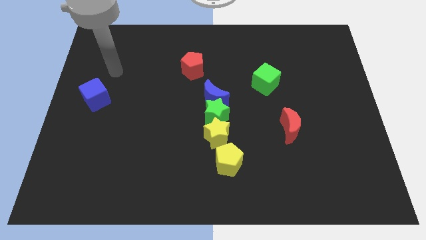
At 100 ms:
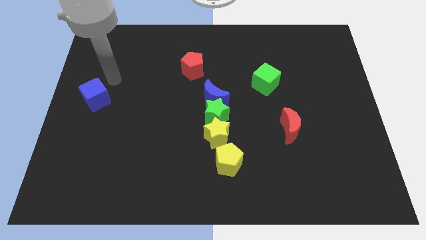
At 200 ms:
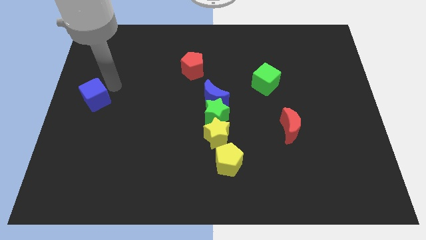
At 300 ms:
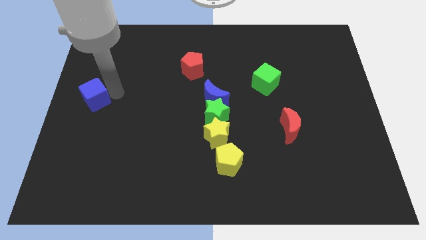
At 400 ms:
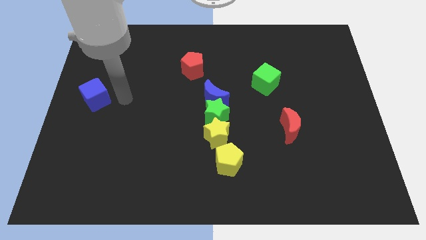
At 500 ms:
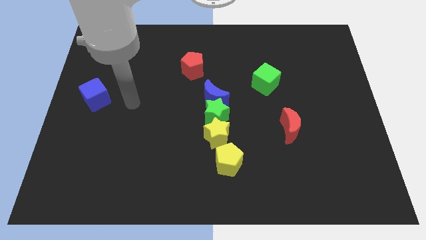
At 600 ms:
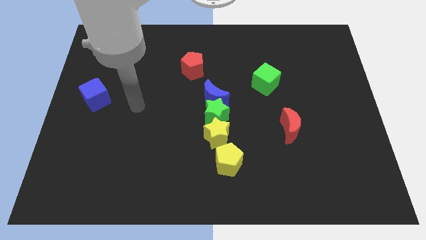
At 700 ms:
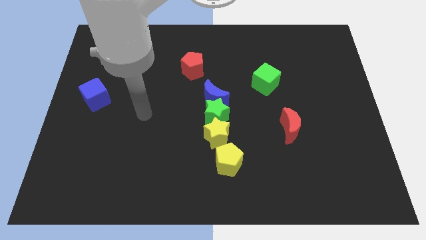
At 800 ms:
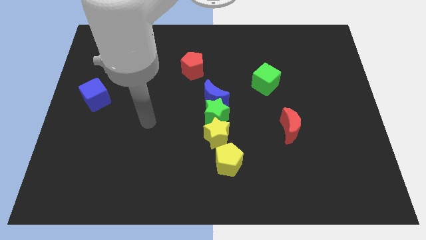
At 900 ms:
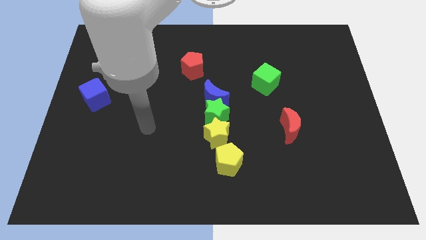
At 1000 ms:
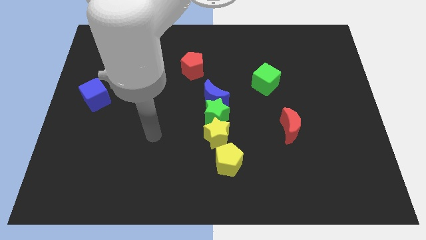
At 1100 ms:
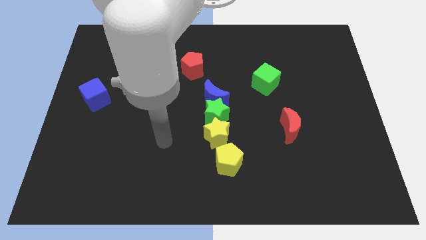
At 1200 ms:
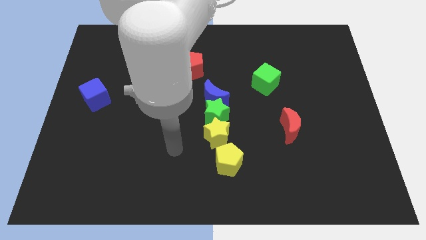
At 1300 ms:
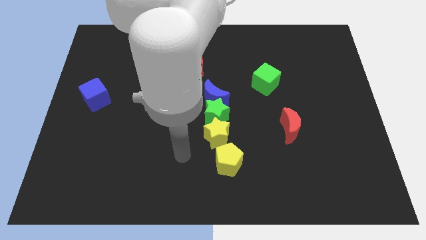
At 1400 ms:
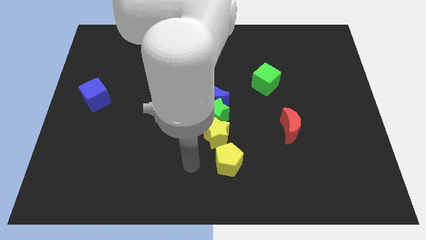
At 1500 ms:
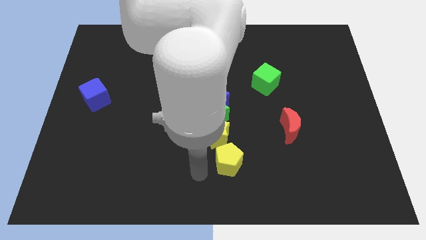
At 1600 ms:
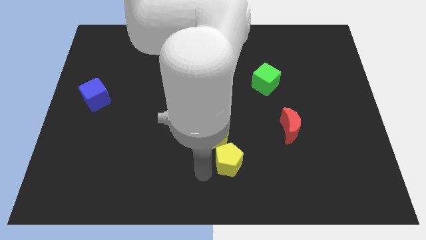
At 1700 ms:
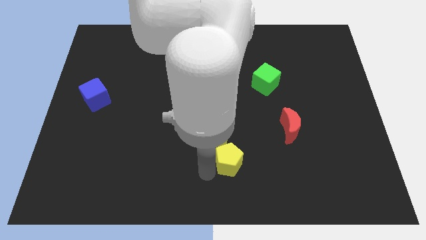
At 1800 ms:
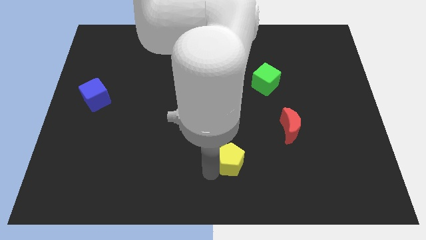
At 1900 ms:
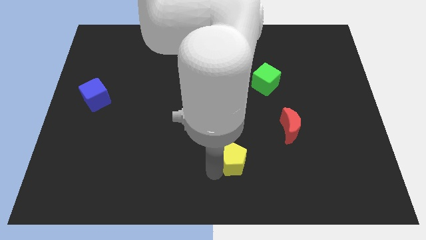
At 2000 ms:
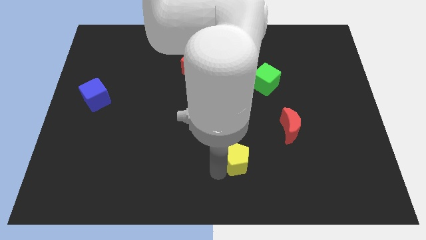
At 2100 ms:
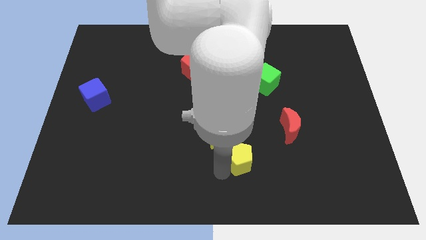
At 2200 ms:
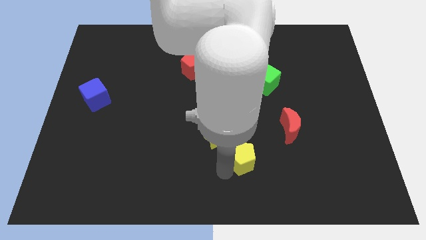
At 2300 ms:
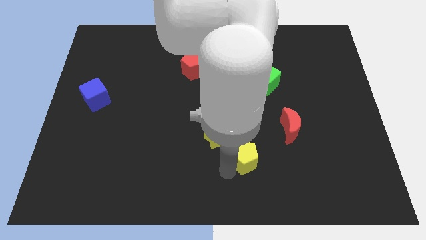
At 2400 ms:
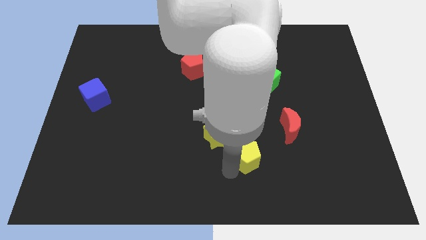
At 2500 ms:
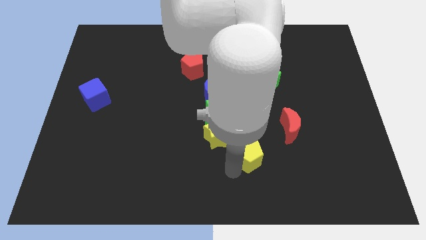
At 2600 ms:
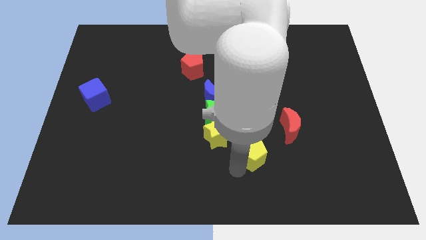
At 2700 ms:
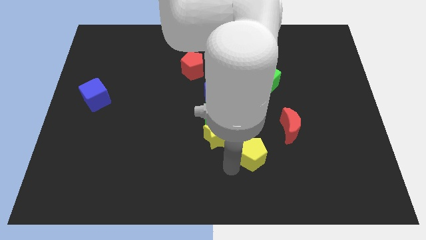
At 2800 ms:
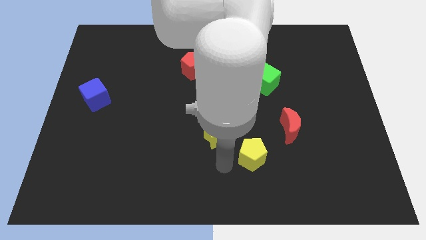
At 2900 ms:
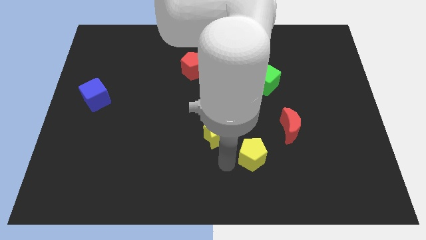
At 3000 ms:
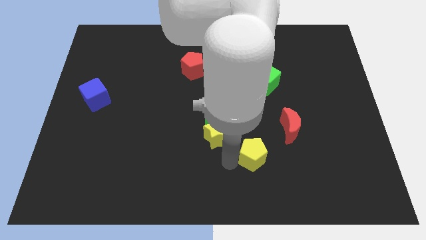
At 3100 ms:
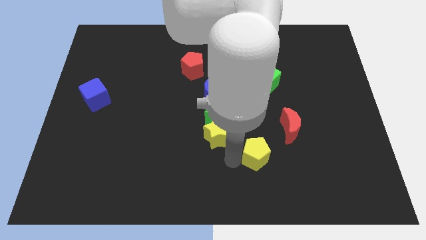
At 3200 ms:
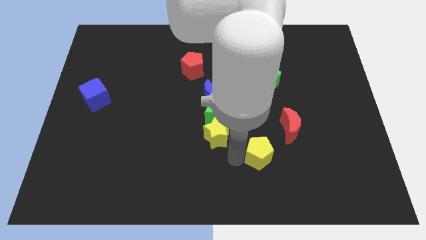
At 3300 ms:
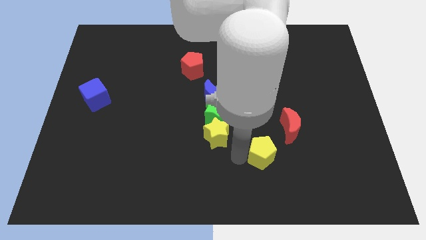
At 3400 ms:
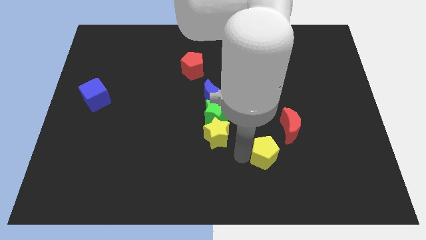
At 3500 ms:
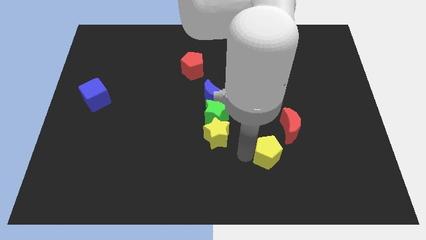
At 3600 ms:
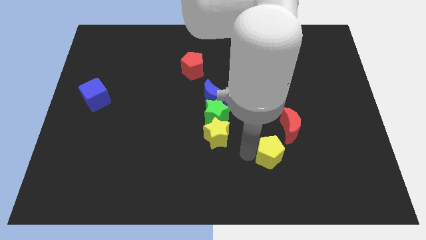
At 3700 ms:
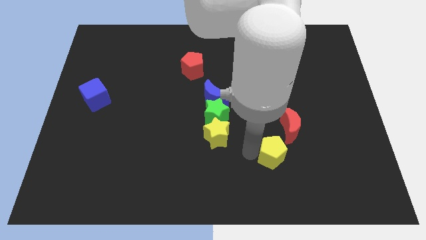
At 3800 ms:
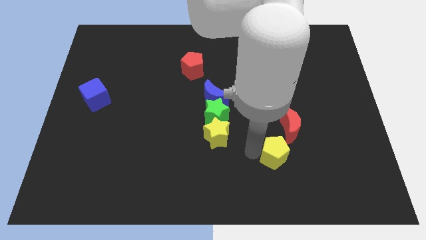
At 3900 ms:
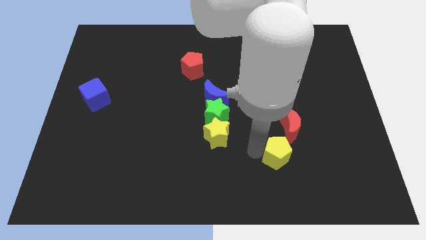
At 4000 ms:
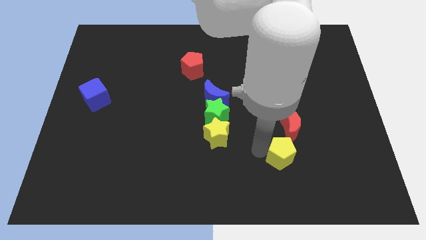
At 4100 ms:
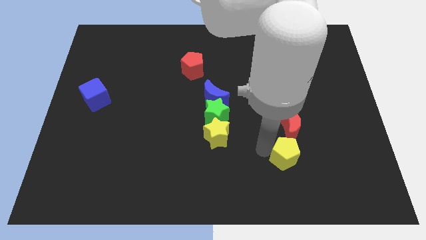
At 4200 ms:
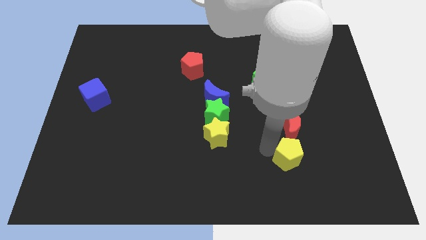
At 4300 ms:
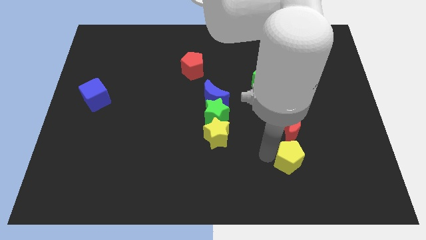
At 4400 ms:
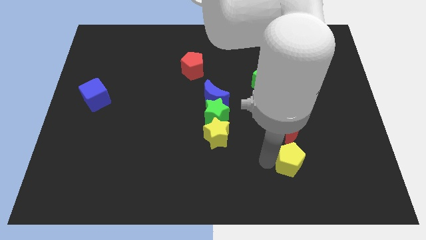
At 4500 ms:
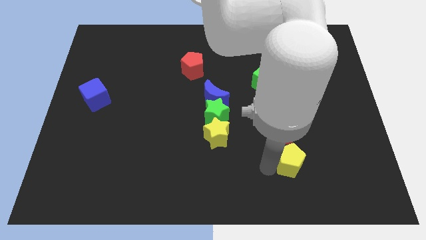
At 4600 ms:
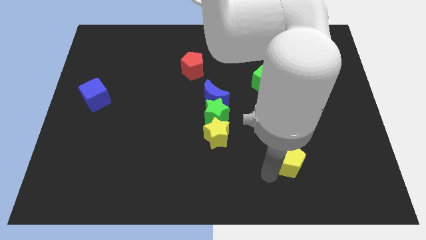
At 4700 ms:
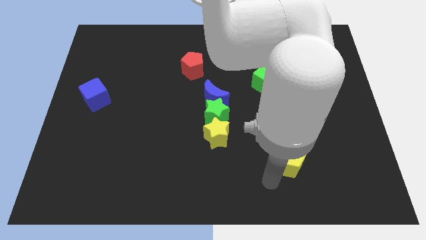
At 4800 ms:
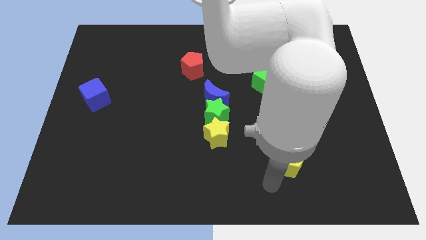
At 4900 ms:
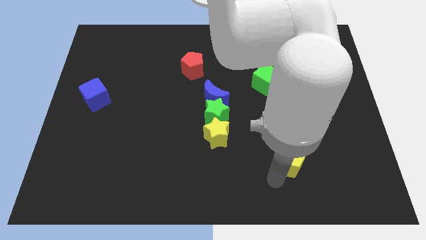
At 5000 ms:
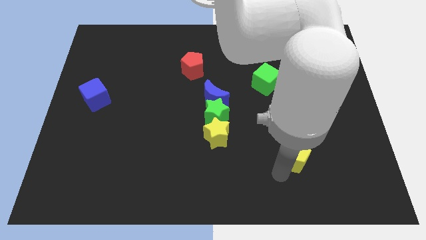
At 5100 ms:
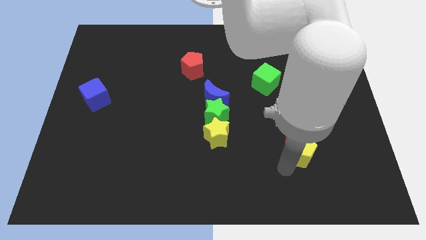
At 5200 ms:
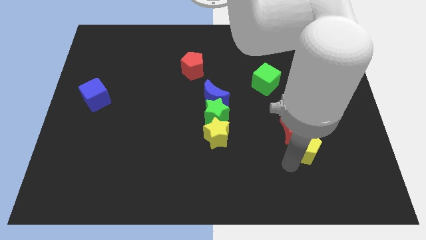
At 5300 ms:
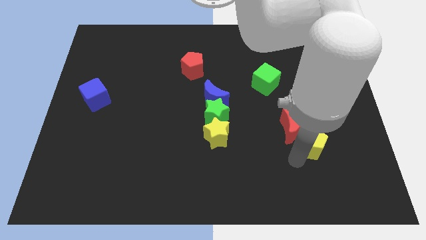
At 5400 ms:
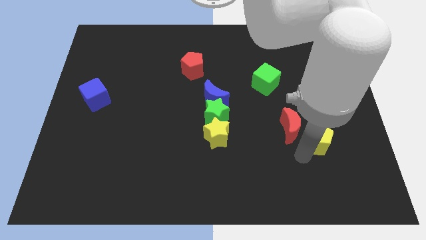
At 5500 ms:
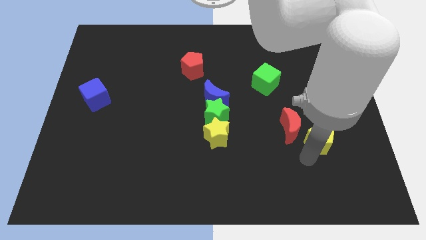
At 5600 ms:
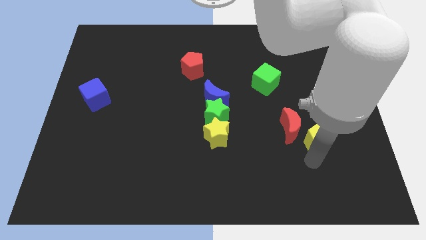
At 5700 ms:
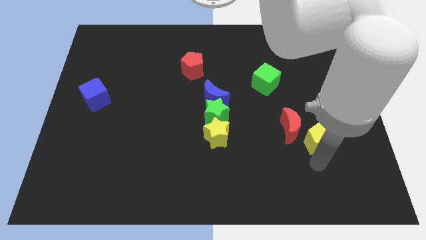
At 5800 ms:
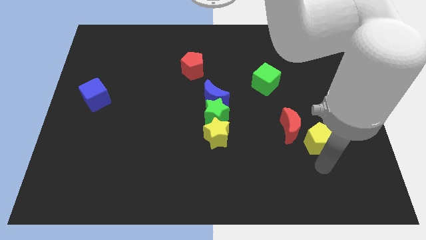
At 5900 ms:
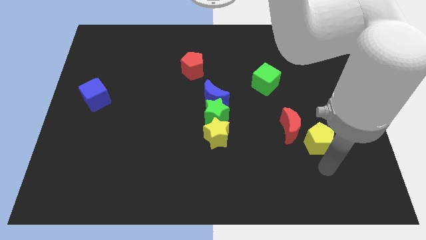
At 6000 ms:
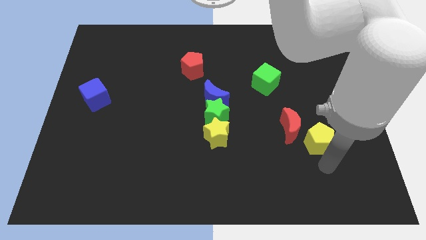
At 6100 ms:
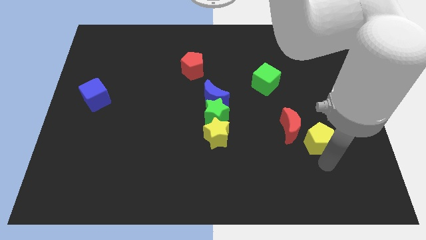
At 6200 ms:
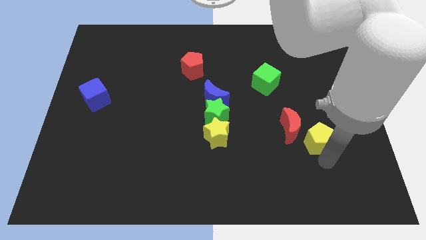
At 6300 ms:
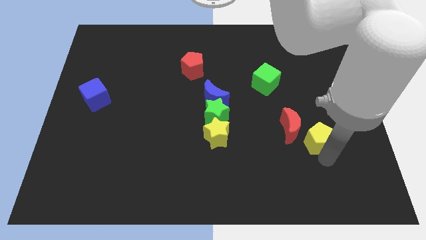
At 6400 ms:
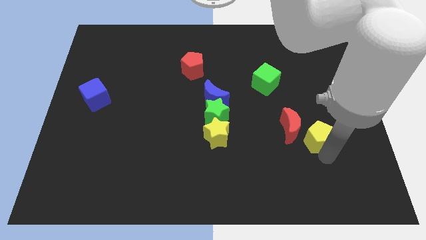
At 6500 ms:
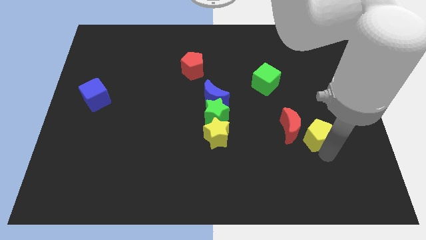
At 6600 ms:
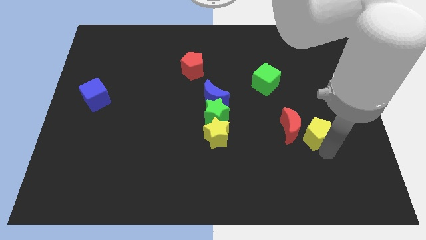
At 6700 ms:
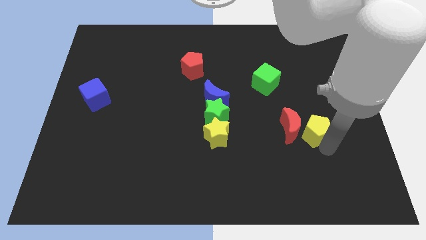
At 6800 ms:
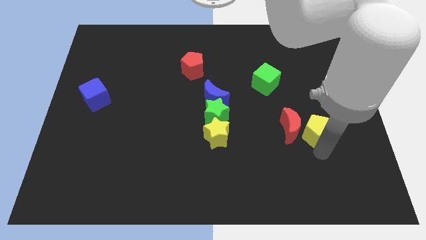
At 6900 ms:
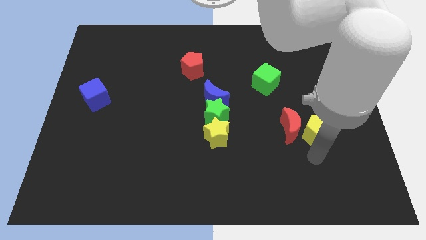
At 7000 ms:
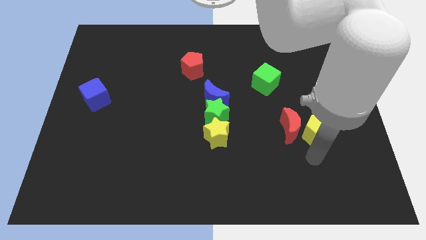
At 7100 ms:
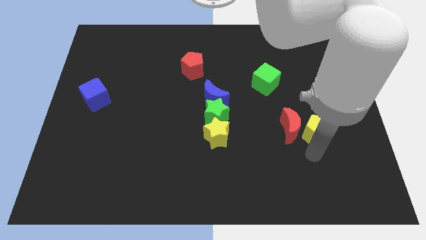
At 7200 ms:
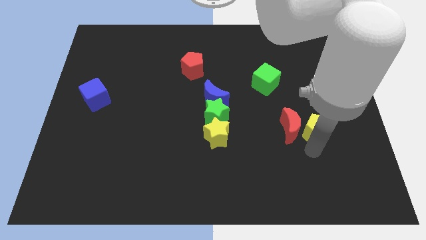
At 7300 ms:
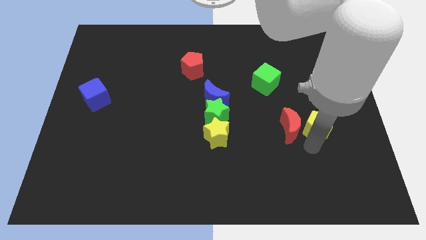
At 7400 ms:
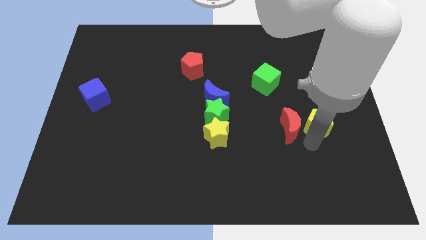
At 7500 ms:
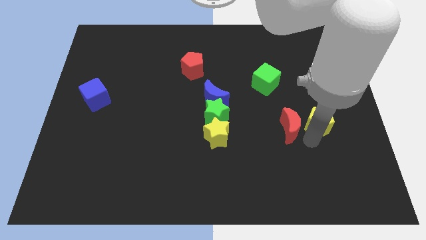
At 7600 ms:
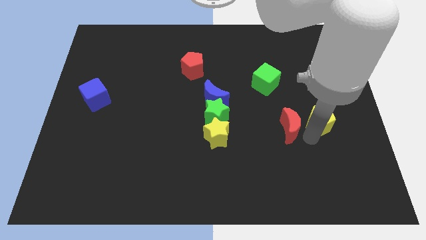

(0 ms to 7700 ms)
move the yellow pentagon upwards and right diagonally

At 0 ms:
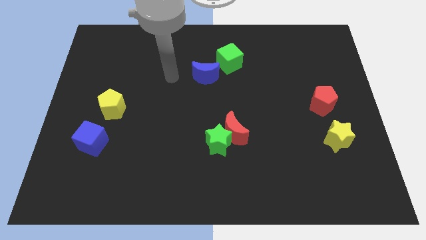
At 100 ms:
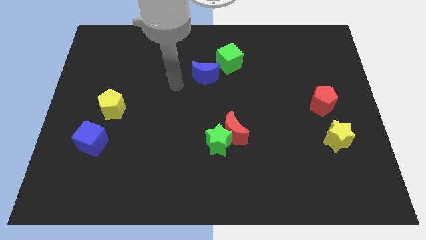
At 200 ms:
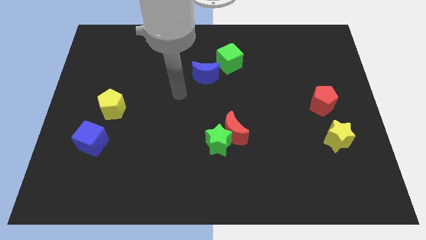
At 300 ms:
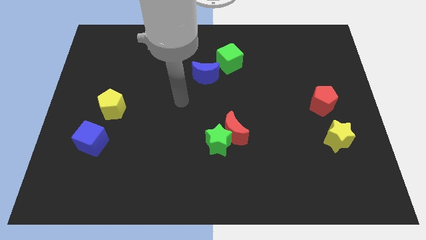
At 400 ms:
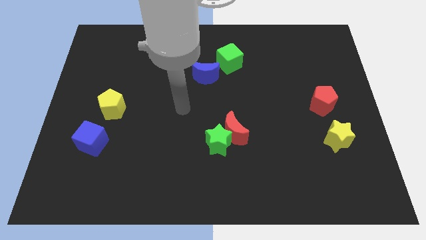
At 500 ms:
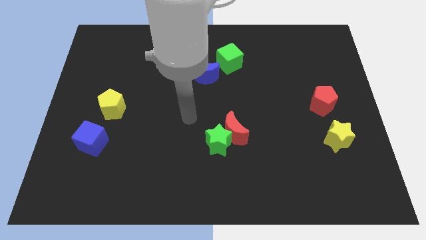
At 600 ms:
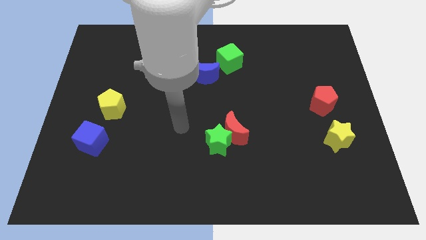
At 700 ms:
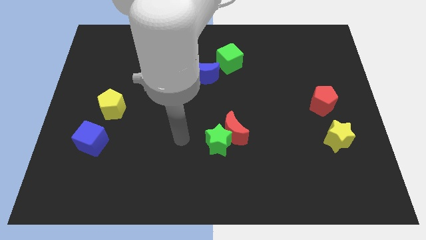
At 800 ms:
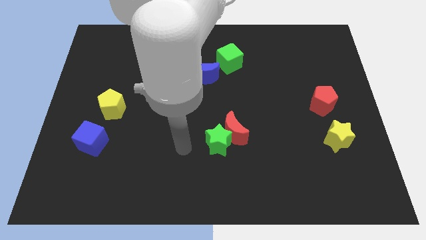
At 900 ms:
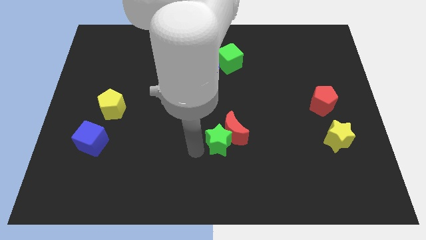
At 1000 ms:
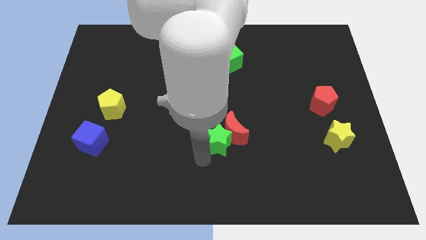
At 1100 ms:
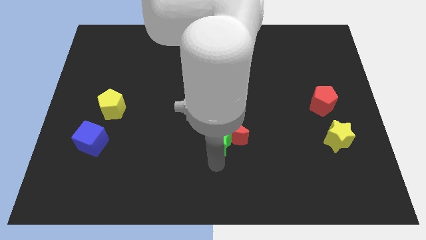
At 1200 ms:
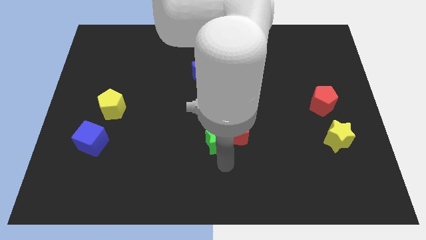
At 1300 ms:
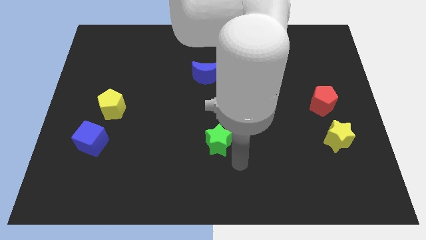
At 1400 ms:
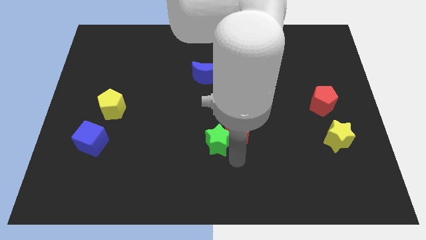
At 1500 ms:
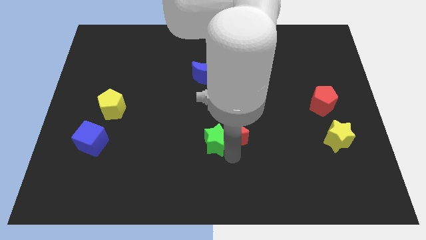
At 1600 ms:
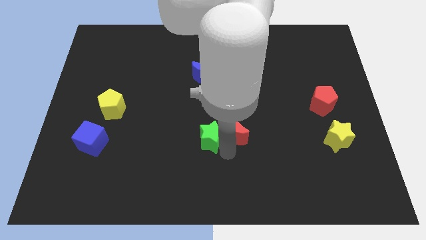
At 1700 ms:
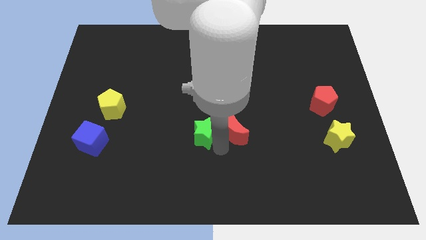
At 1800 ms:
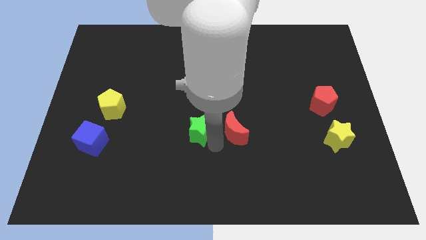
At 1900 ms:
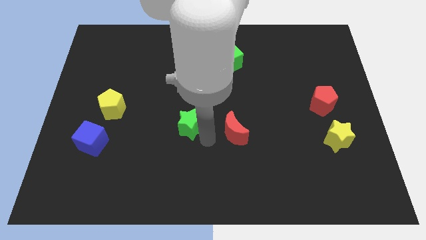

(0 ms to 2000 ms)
move the green star upwards and left diagonally a bit
